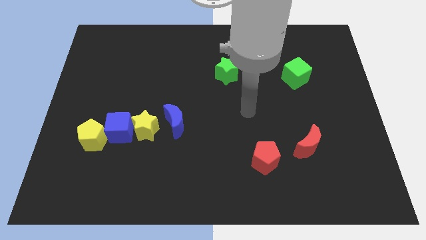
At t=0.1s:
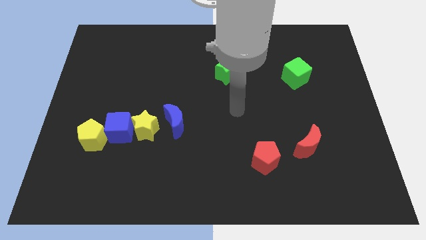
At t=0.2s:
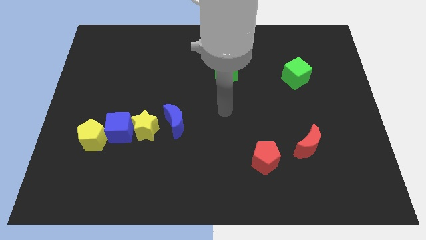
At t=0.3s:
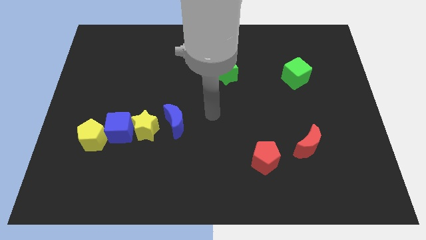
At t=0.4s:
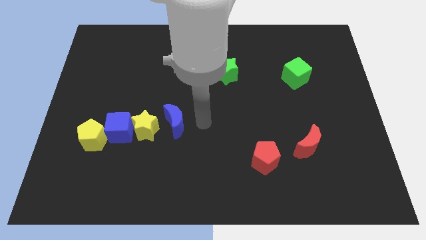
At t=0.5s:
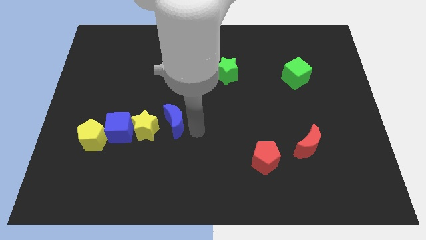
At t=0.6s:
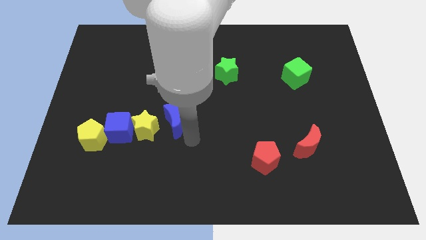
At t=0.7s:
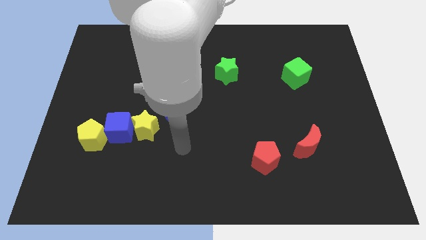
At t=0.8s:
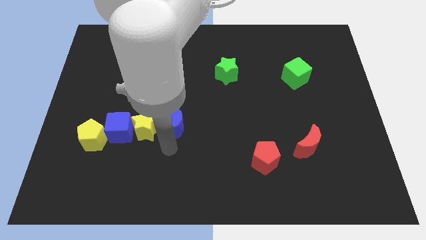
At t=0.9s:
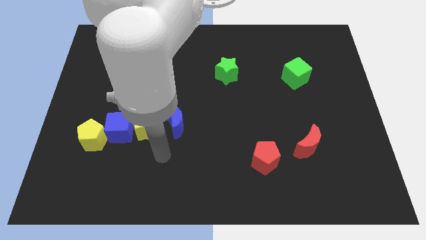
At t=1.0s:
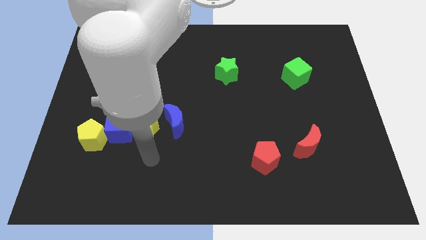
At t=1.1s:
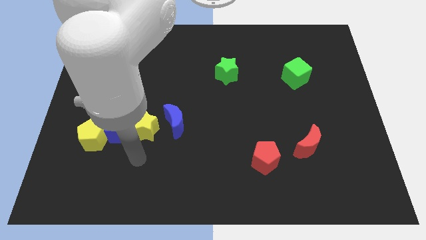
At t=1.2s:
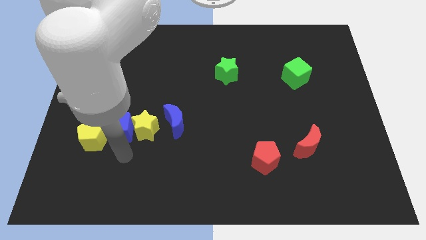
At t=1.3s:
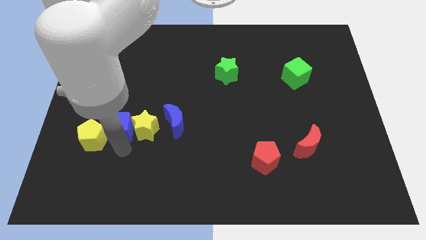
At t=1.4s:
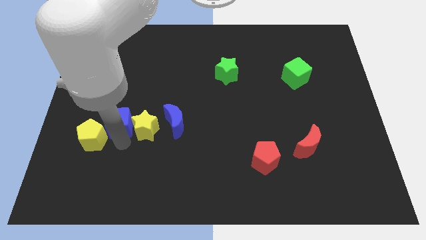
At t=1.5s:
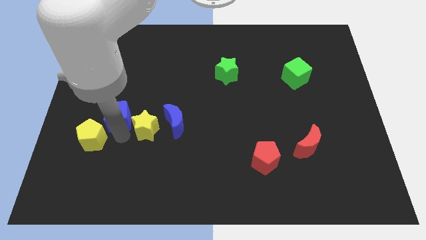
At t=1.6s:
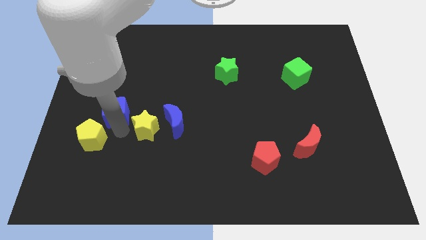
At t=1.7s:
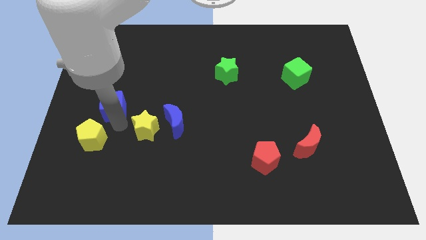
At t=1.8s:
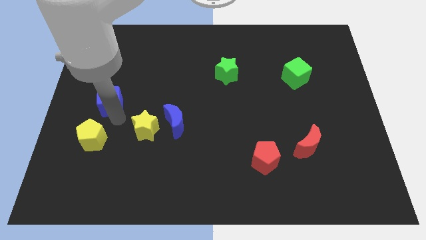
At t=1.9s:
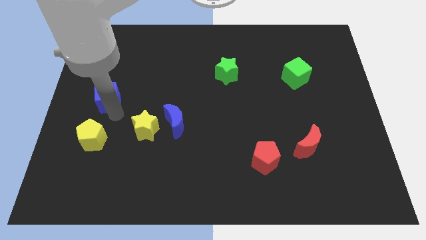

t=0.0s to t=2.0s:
move the blue cube away from the yellow star and yellow pentagon

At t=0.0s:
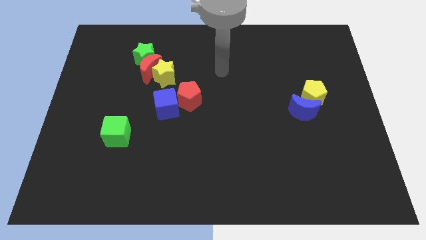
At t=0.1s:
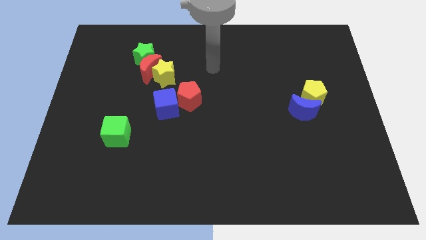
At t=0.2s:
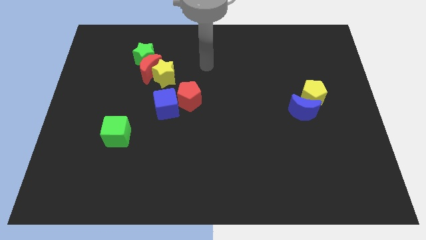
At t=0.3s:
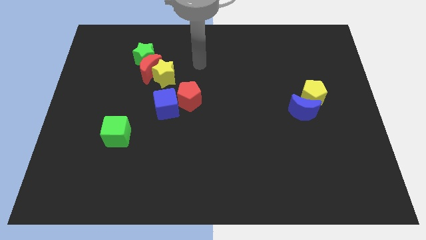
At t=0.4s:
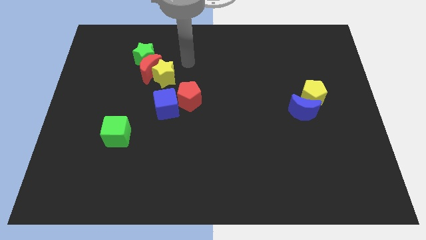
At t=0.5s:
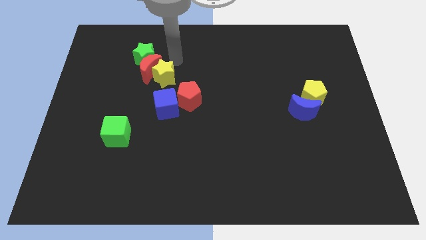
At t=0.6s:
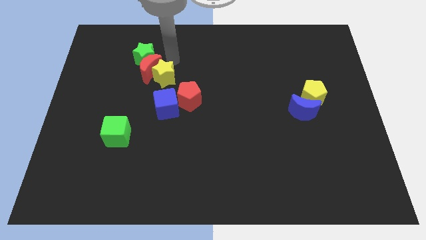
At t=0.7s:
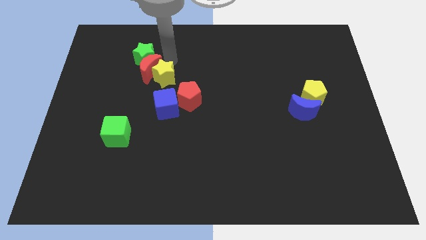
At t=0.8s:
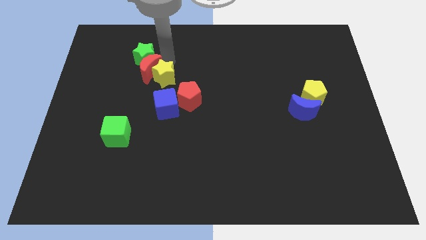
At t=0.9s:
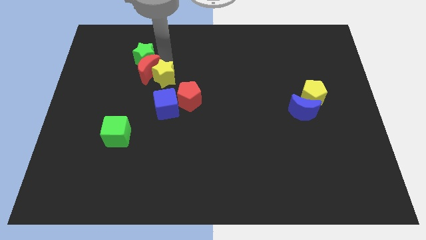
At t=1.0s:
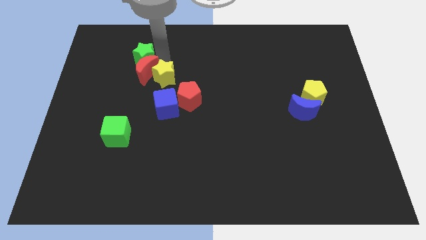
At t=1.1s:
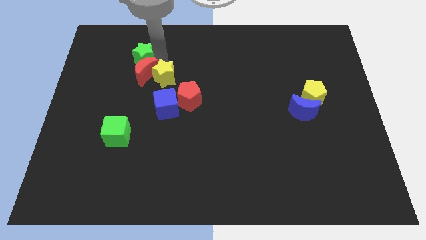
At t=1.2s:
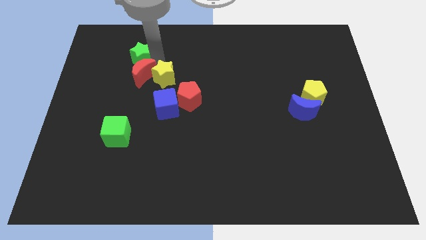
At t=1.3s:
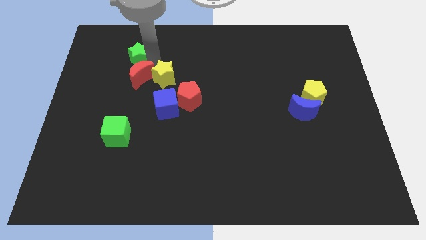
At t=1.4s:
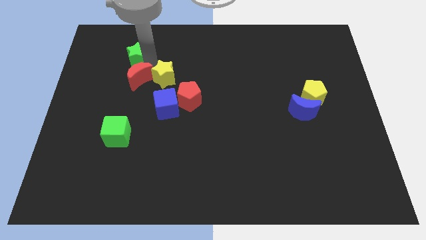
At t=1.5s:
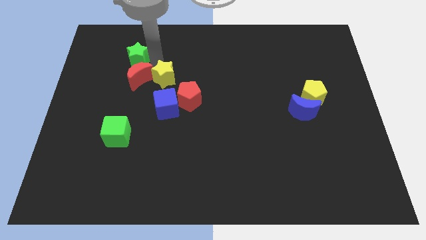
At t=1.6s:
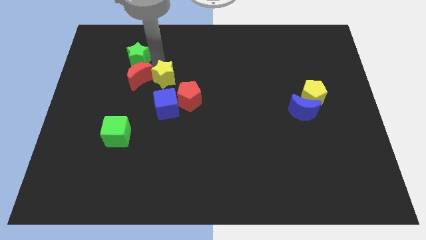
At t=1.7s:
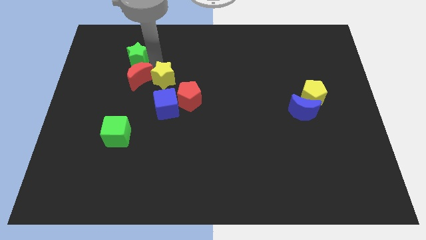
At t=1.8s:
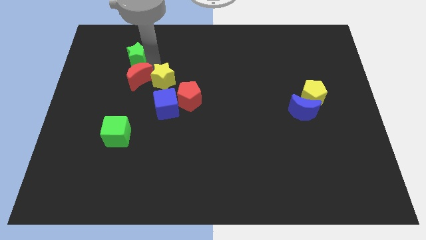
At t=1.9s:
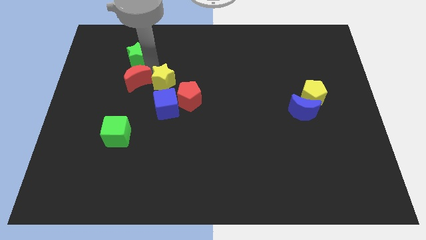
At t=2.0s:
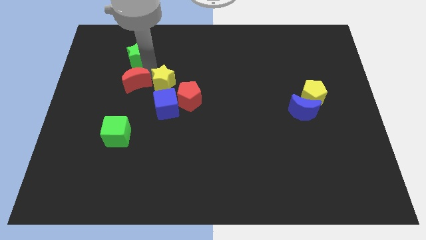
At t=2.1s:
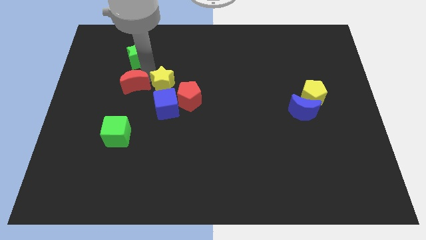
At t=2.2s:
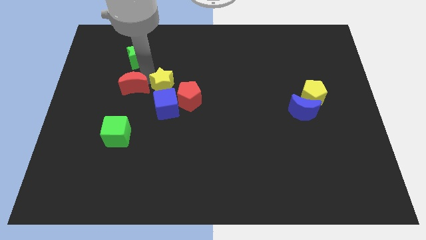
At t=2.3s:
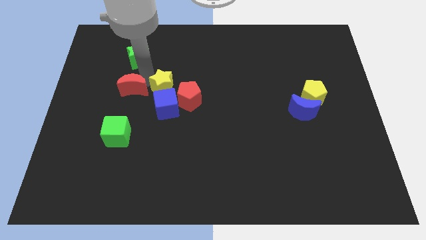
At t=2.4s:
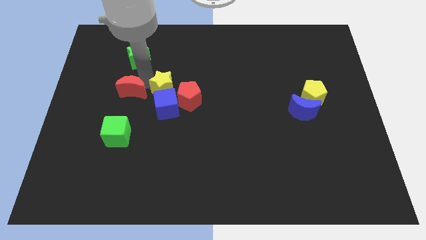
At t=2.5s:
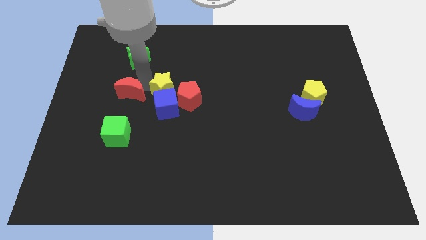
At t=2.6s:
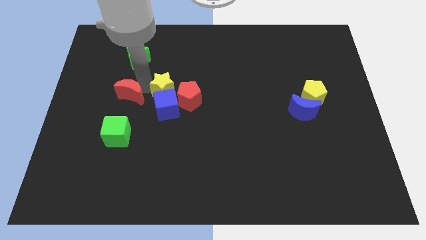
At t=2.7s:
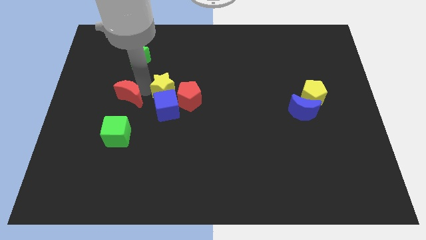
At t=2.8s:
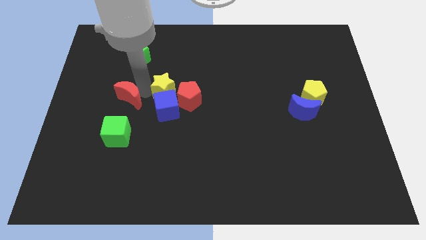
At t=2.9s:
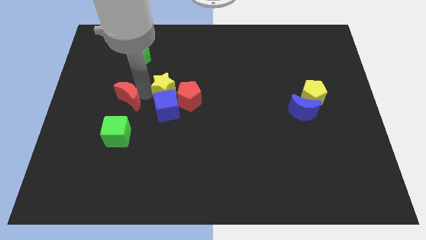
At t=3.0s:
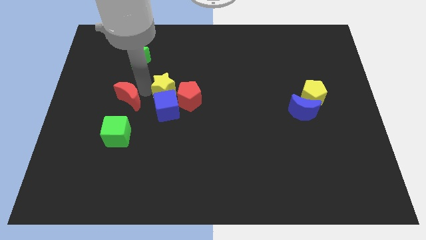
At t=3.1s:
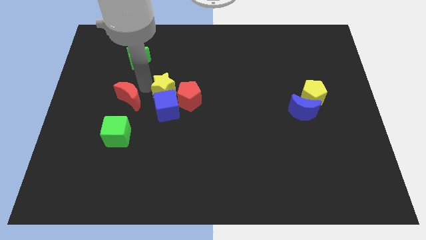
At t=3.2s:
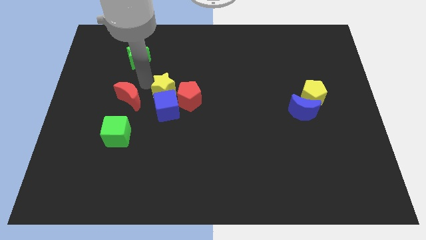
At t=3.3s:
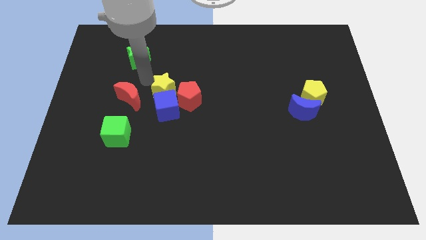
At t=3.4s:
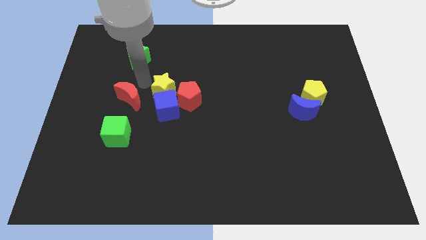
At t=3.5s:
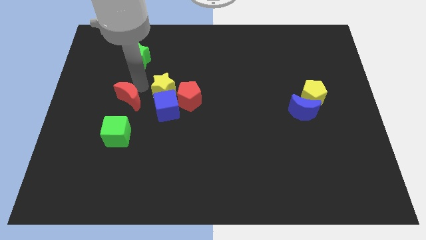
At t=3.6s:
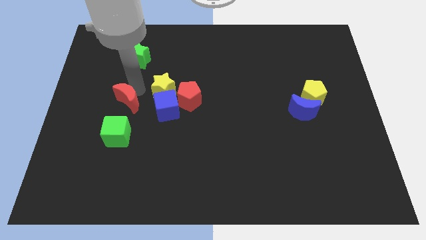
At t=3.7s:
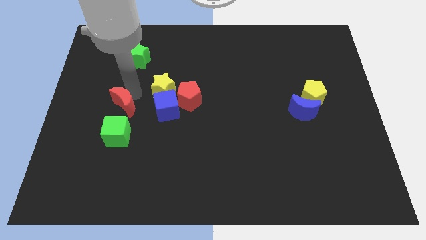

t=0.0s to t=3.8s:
move the red moon away from the green star and yellow star

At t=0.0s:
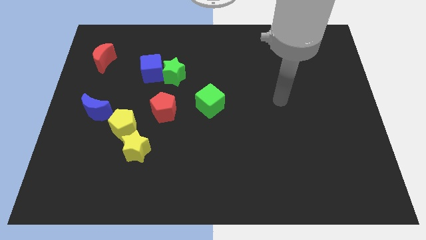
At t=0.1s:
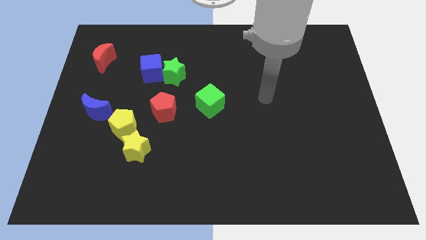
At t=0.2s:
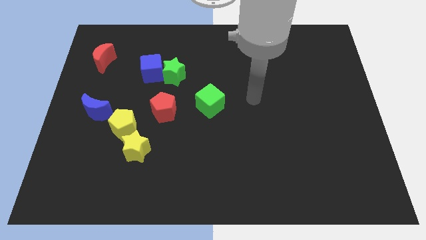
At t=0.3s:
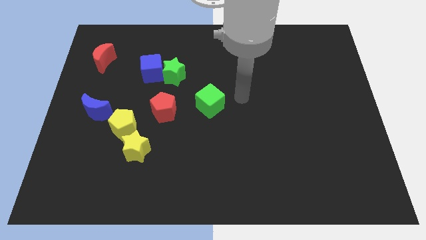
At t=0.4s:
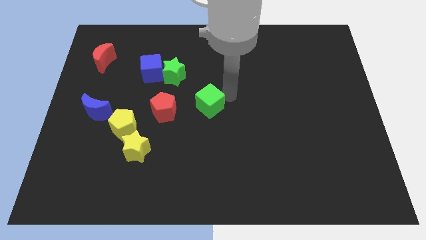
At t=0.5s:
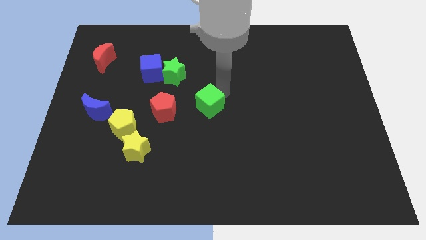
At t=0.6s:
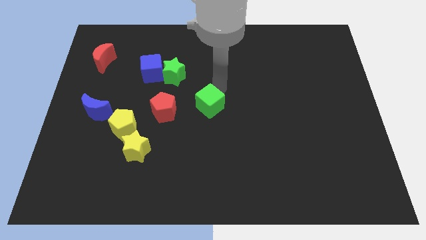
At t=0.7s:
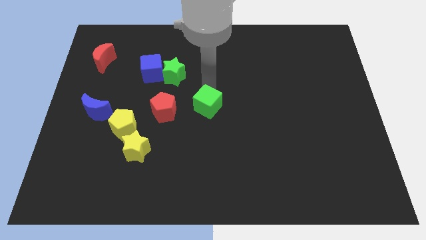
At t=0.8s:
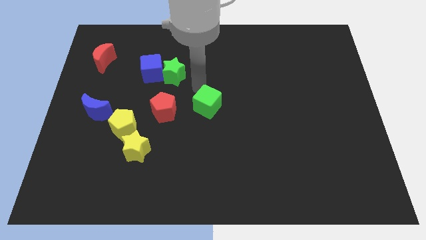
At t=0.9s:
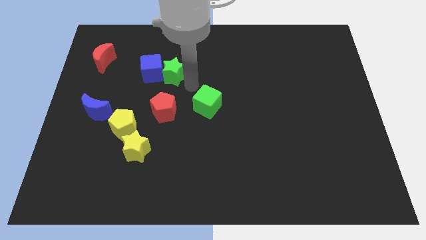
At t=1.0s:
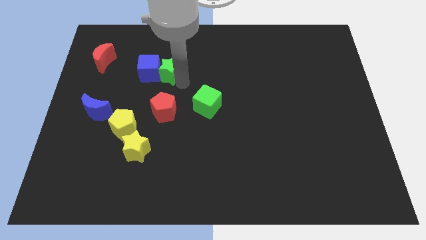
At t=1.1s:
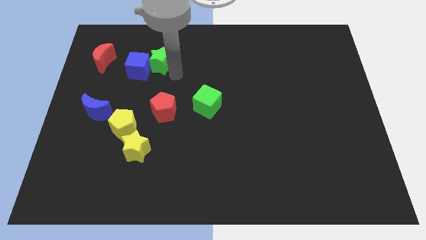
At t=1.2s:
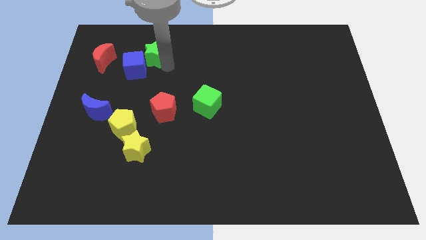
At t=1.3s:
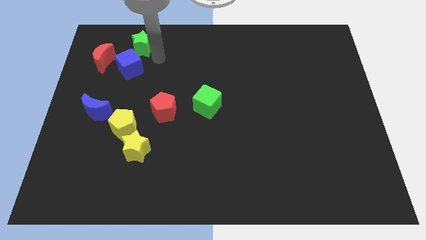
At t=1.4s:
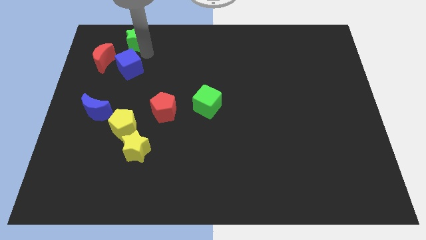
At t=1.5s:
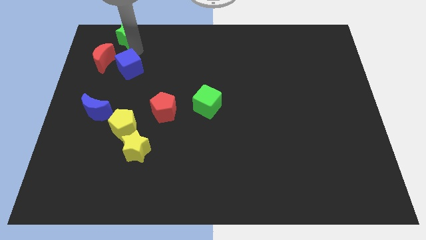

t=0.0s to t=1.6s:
separate the blue cube from the green star

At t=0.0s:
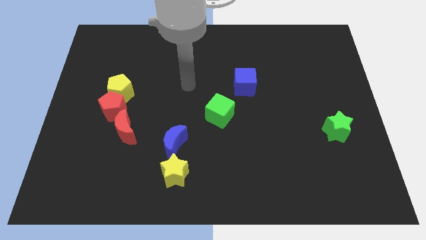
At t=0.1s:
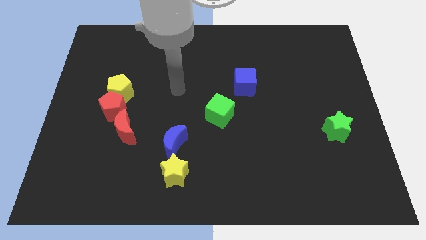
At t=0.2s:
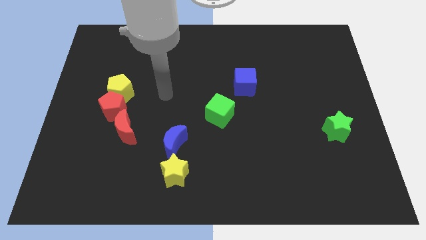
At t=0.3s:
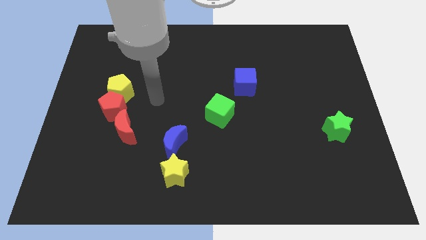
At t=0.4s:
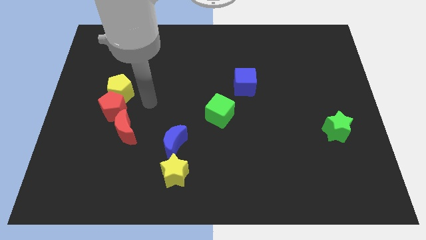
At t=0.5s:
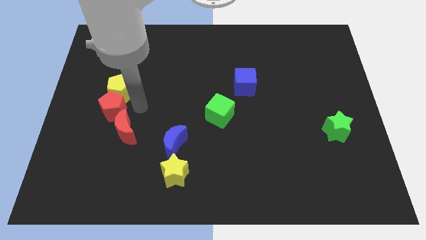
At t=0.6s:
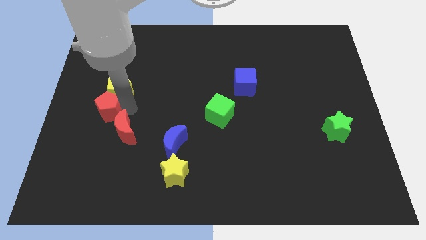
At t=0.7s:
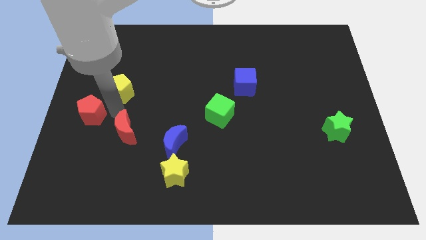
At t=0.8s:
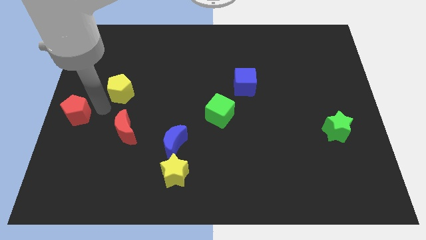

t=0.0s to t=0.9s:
move the yellow pentagon away from the red pentagon

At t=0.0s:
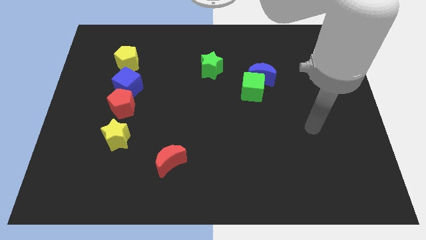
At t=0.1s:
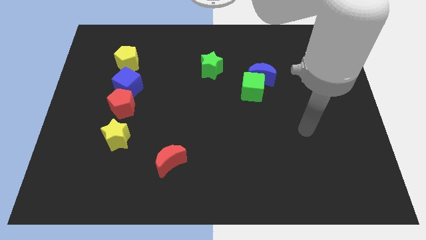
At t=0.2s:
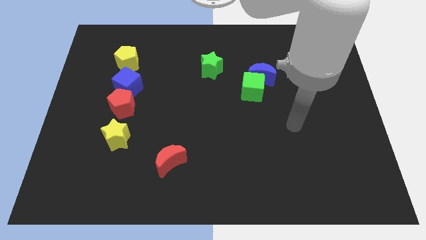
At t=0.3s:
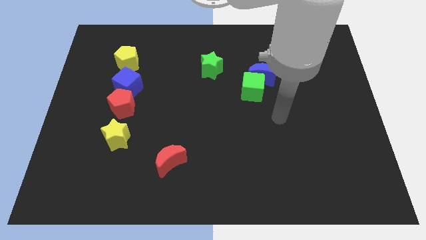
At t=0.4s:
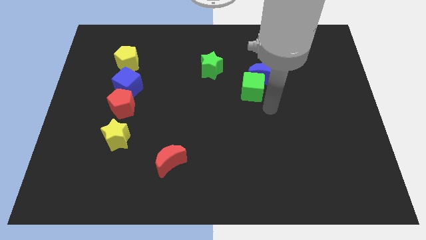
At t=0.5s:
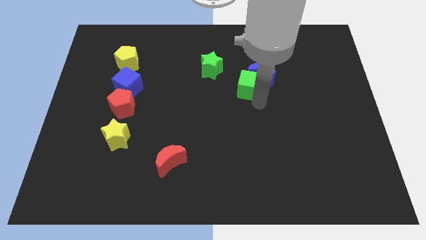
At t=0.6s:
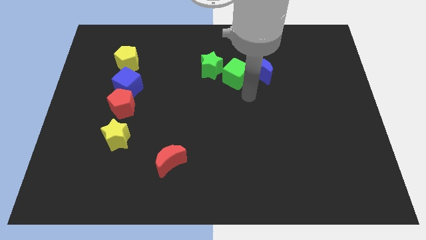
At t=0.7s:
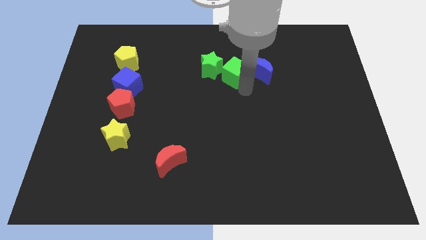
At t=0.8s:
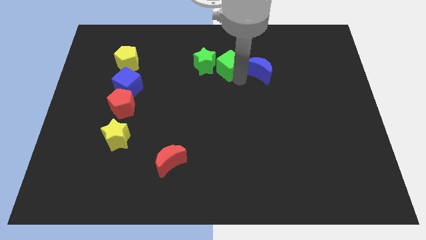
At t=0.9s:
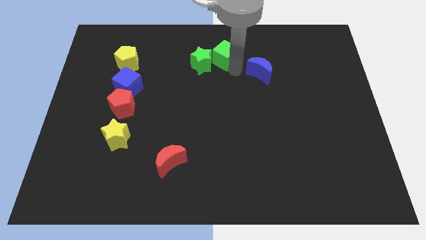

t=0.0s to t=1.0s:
separate the blue moon from the green cube
